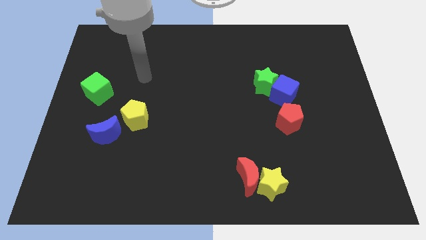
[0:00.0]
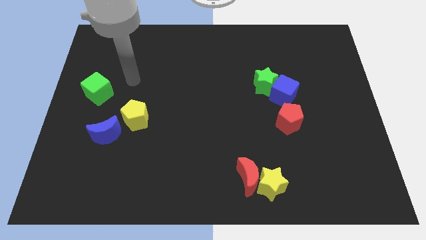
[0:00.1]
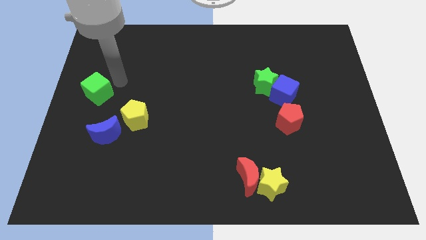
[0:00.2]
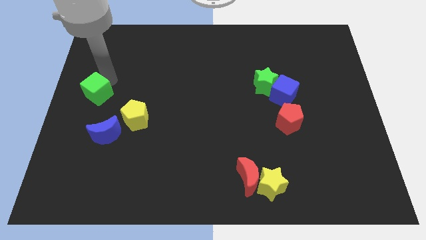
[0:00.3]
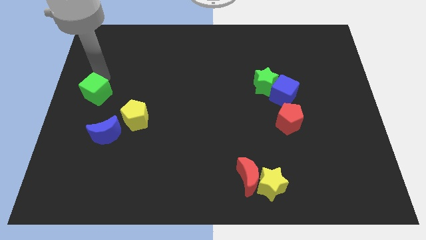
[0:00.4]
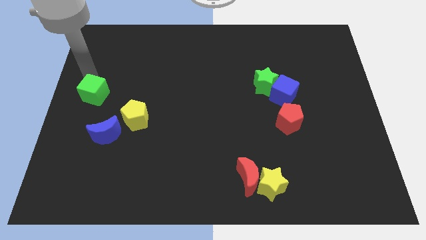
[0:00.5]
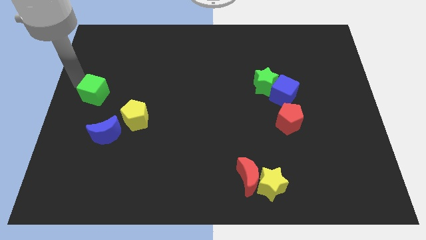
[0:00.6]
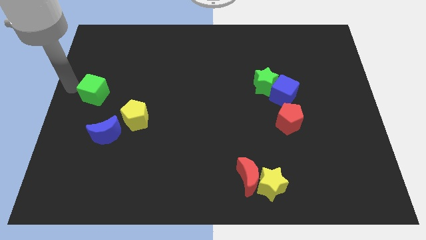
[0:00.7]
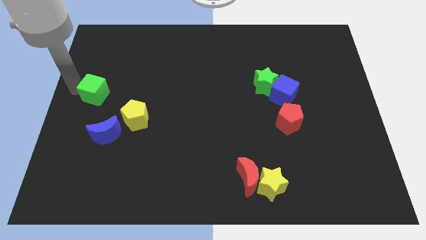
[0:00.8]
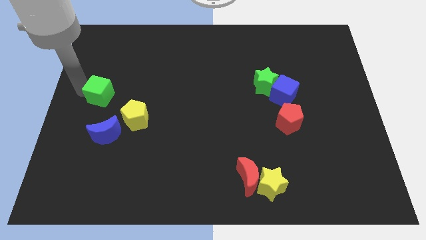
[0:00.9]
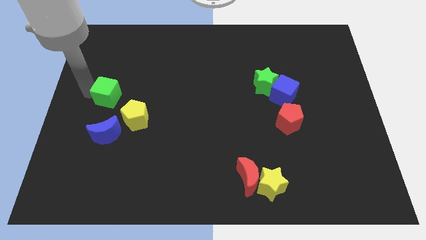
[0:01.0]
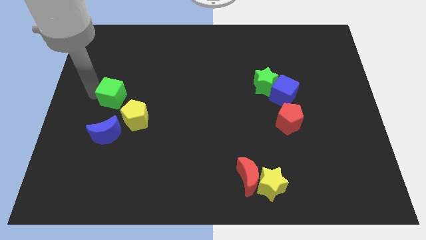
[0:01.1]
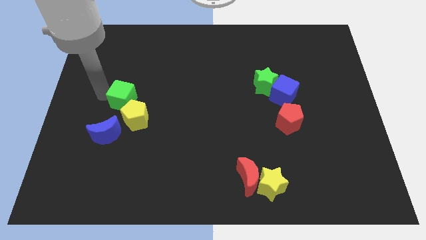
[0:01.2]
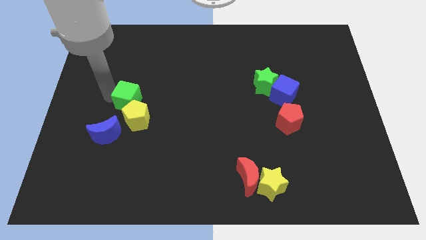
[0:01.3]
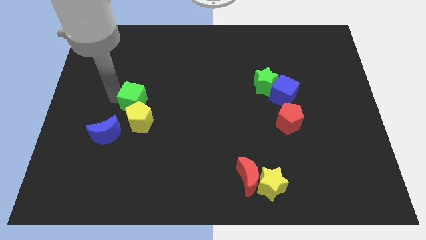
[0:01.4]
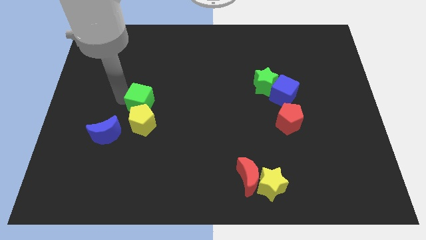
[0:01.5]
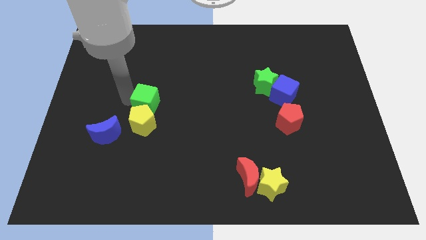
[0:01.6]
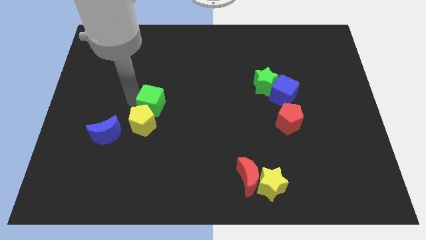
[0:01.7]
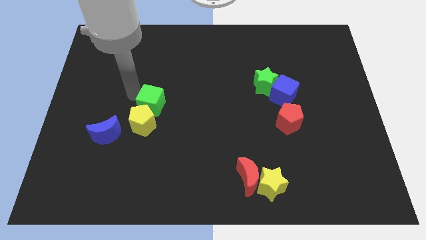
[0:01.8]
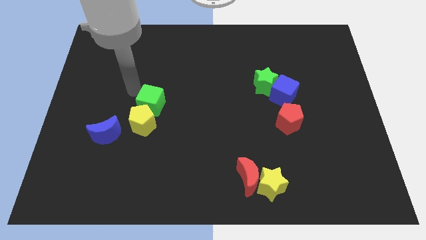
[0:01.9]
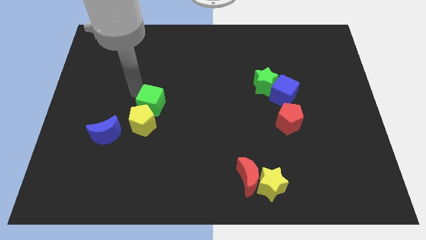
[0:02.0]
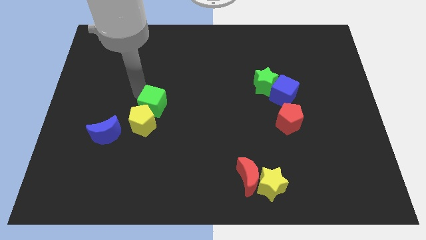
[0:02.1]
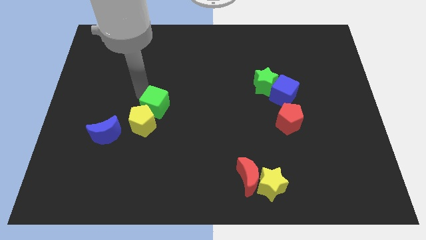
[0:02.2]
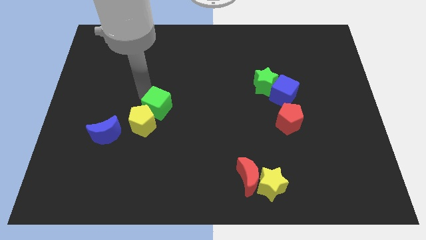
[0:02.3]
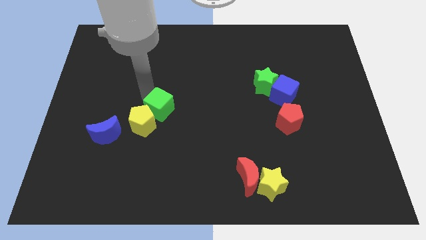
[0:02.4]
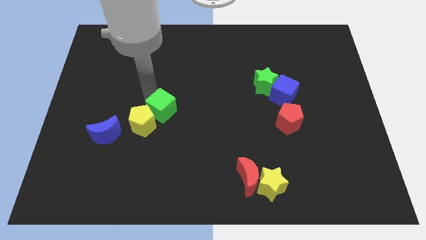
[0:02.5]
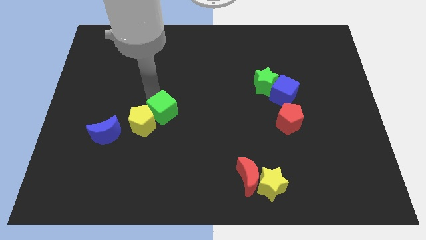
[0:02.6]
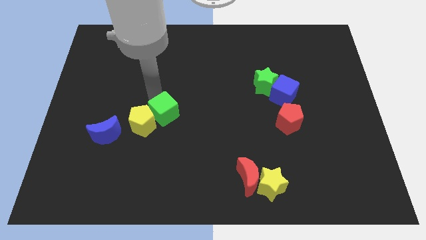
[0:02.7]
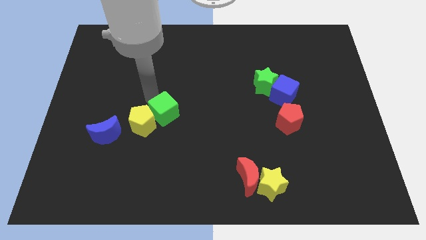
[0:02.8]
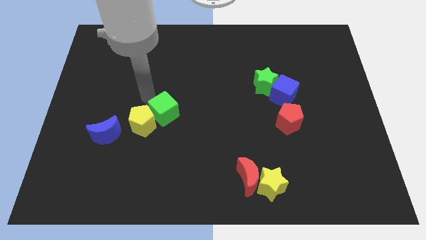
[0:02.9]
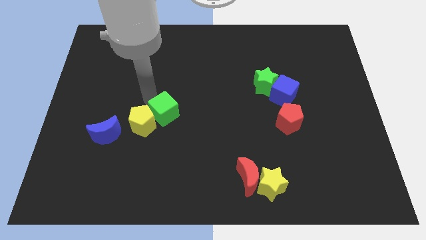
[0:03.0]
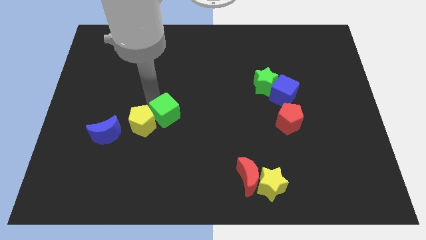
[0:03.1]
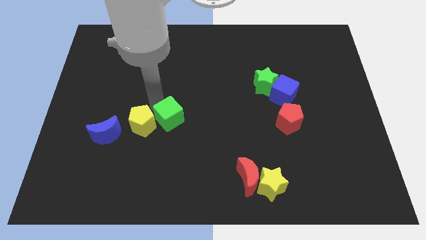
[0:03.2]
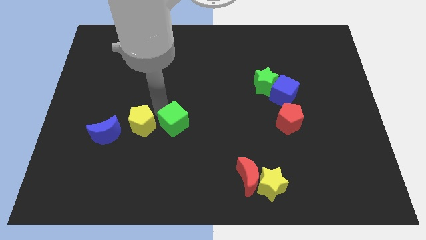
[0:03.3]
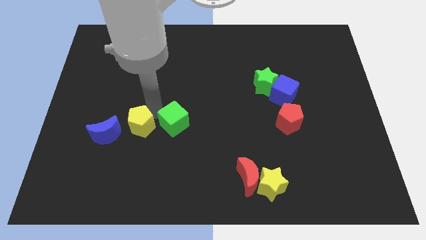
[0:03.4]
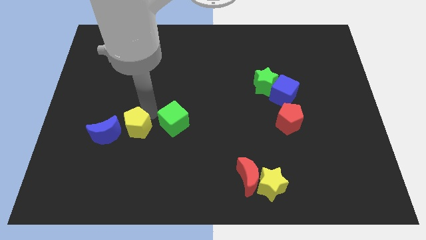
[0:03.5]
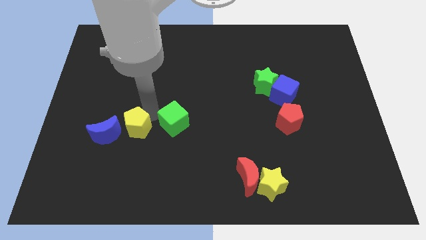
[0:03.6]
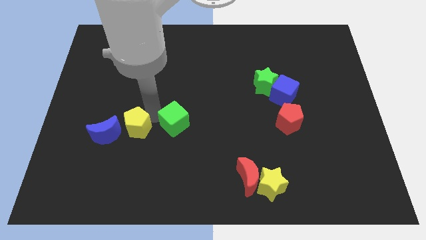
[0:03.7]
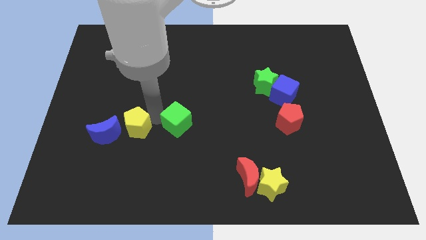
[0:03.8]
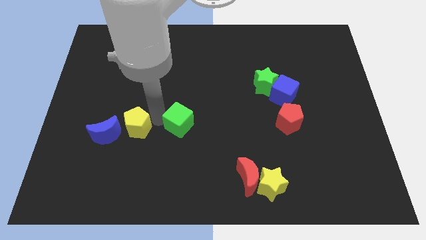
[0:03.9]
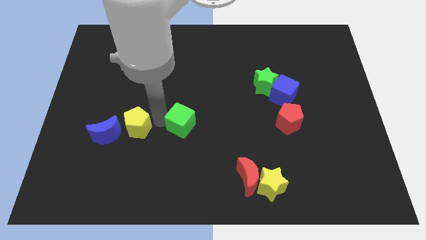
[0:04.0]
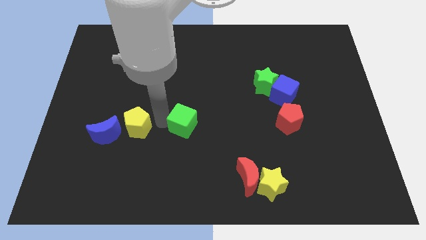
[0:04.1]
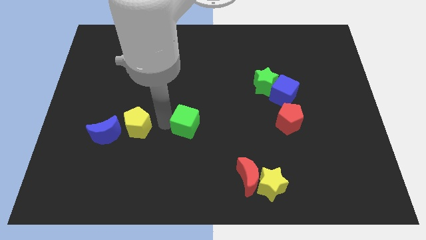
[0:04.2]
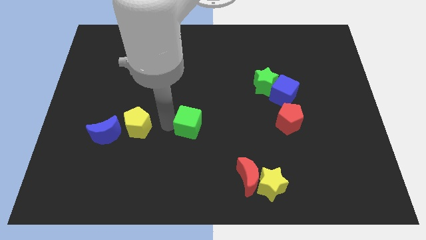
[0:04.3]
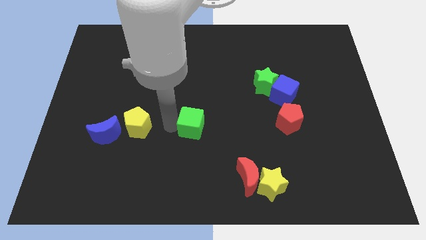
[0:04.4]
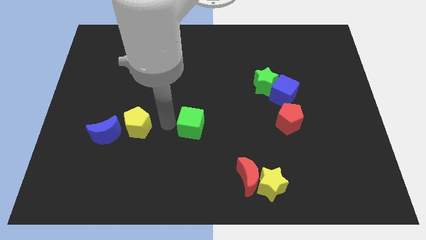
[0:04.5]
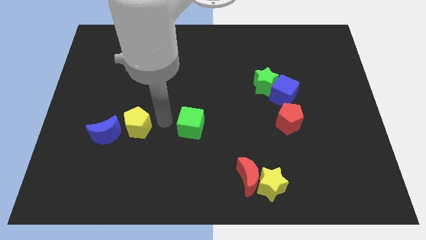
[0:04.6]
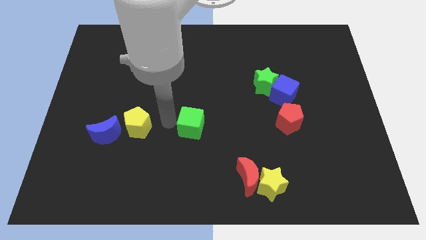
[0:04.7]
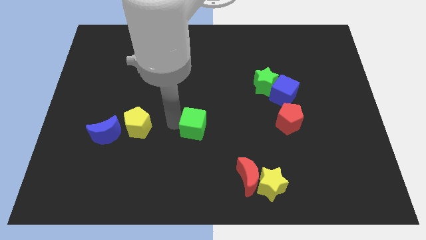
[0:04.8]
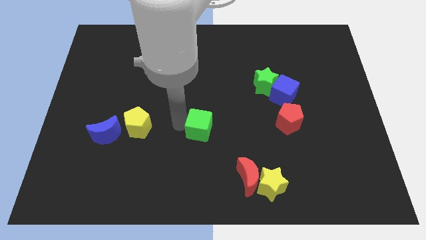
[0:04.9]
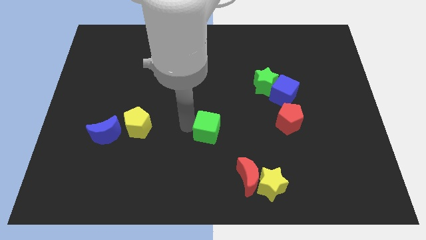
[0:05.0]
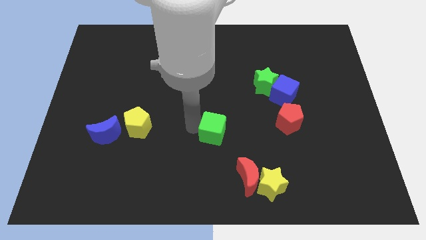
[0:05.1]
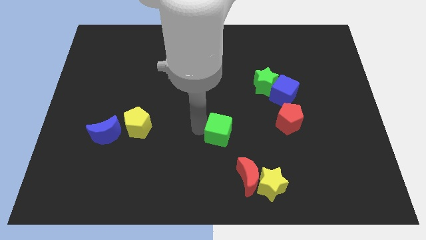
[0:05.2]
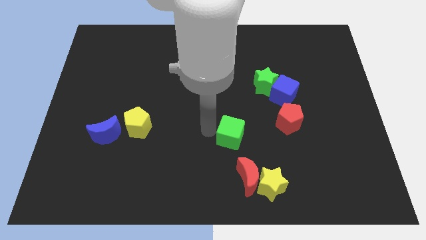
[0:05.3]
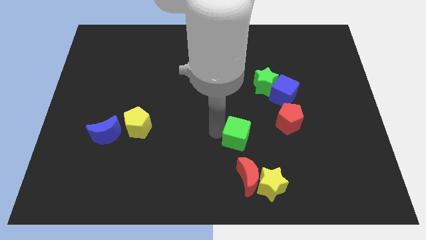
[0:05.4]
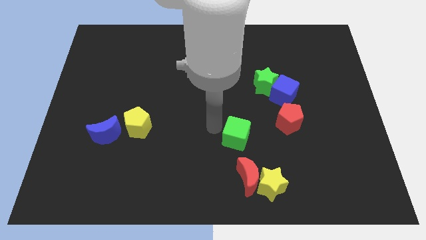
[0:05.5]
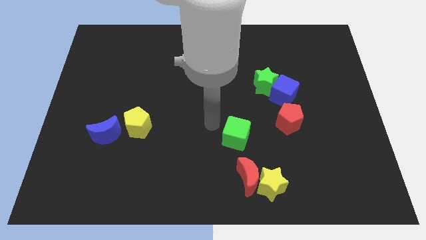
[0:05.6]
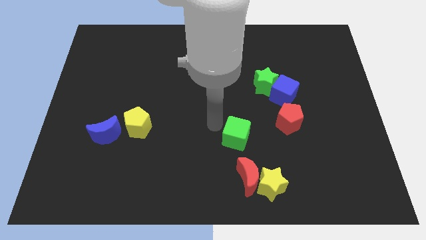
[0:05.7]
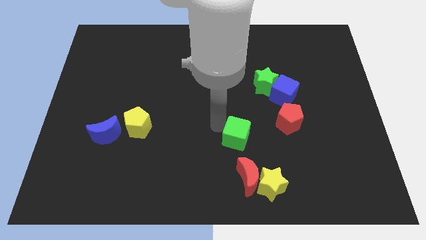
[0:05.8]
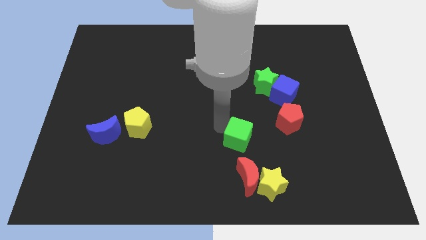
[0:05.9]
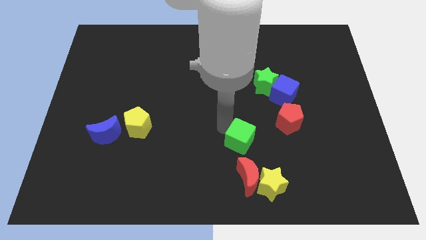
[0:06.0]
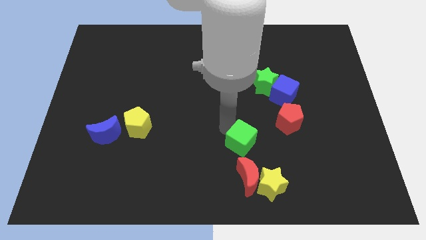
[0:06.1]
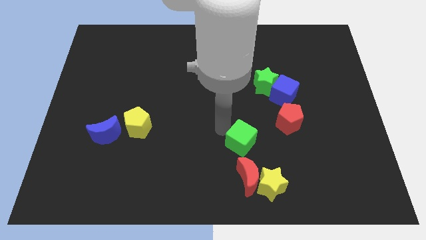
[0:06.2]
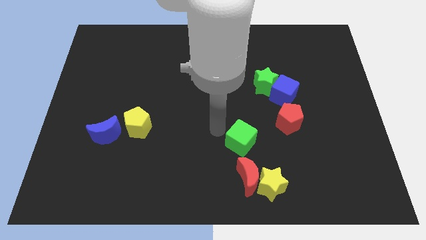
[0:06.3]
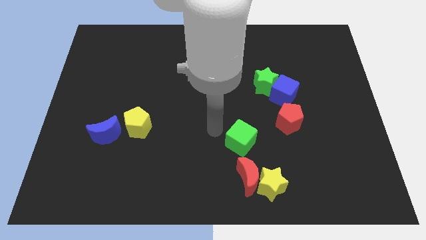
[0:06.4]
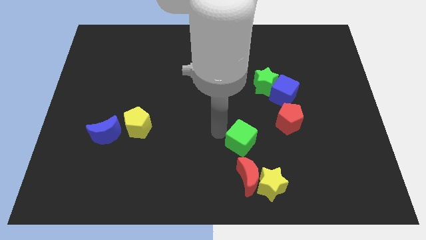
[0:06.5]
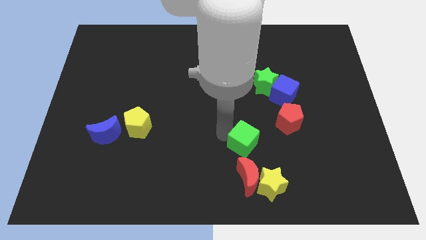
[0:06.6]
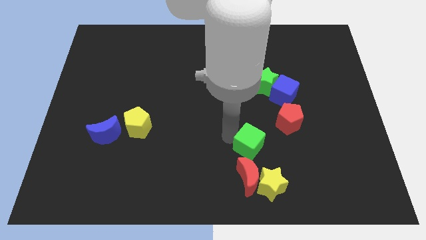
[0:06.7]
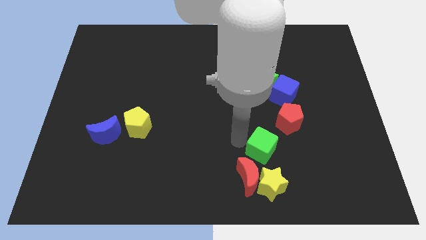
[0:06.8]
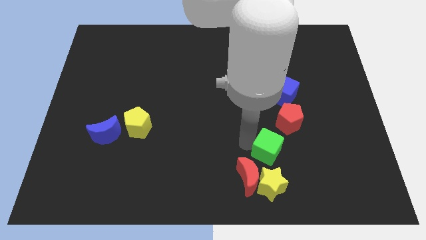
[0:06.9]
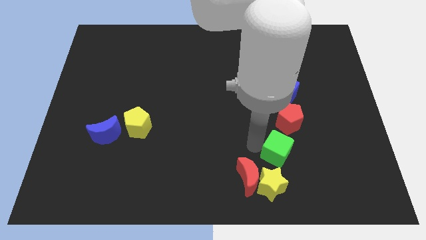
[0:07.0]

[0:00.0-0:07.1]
put the green cube to the top right side of the yellow star
